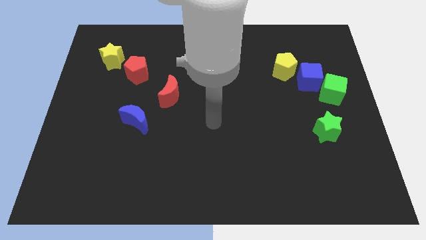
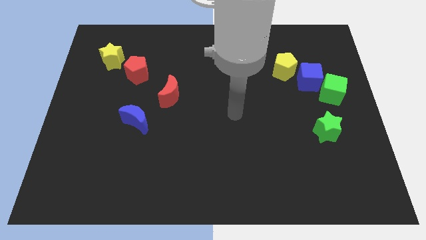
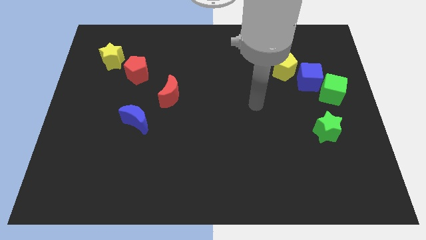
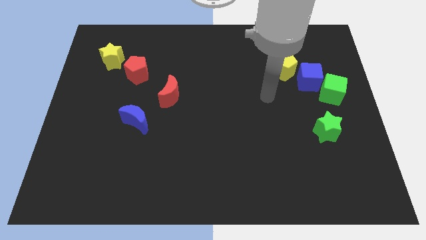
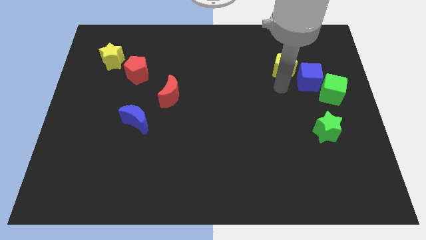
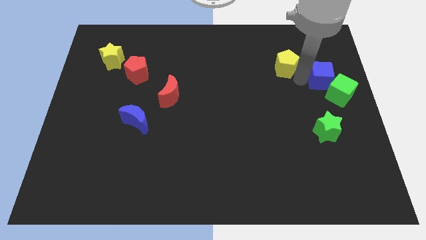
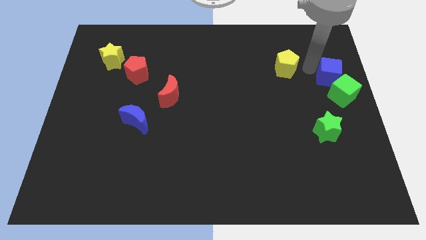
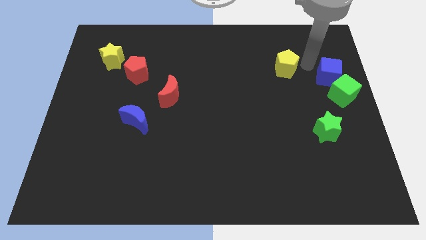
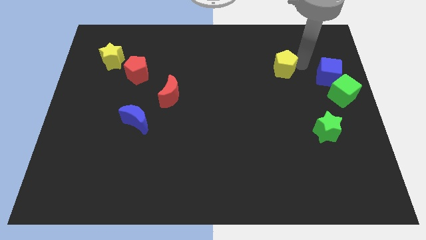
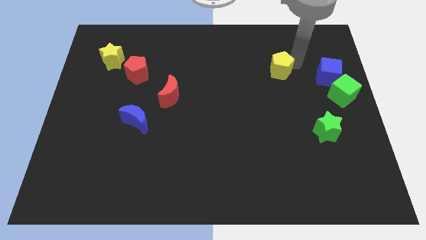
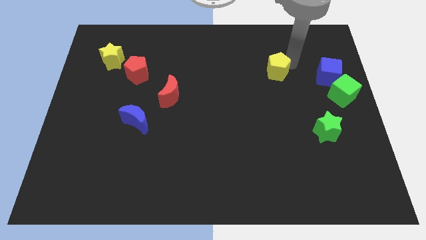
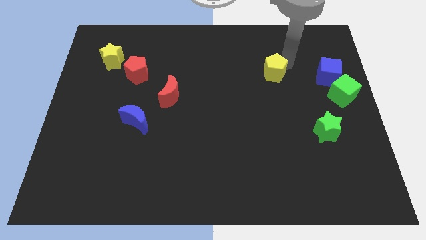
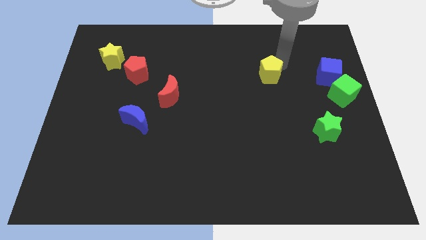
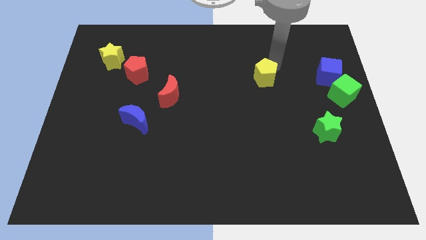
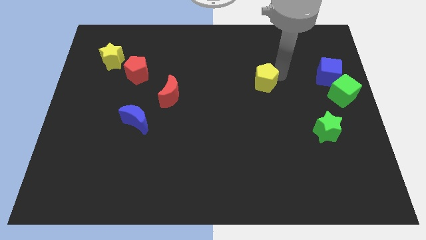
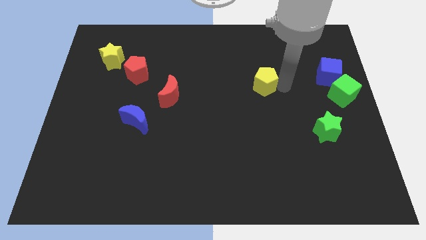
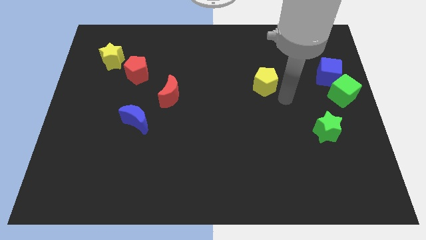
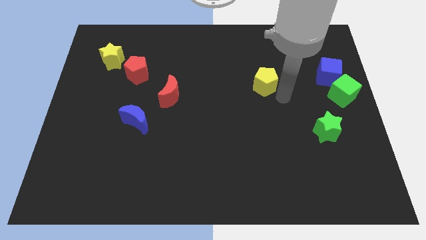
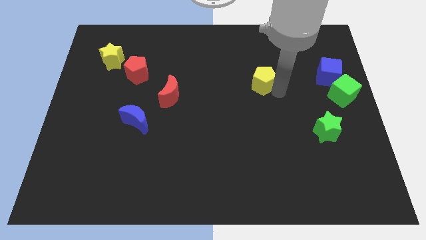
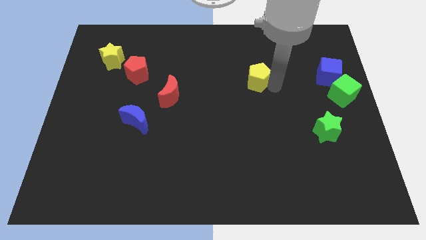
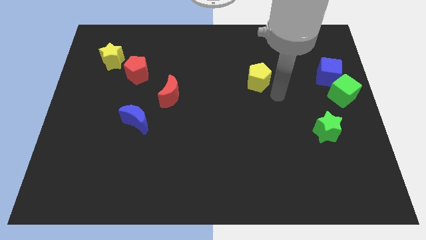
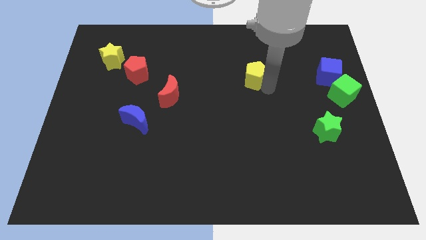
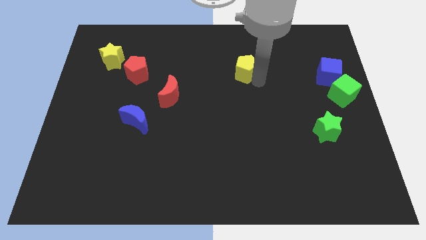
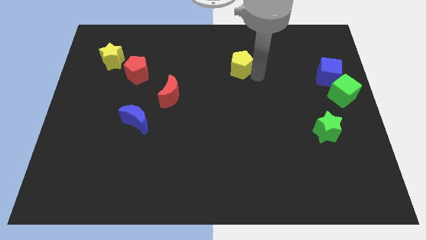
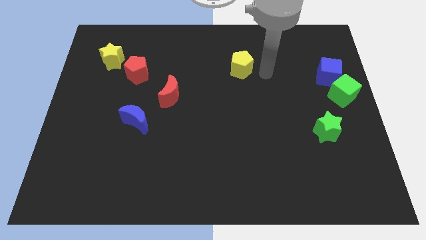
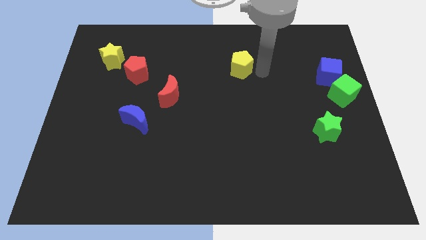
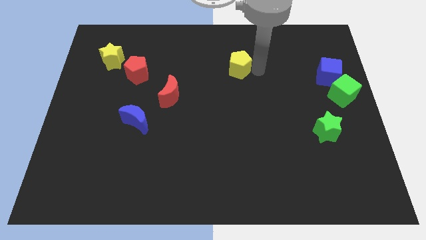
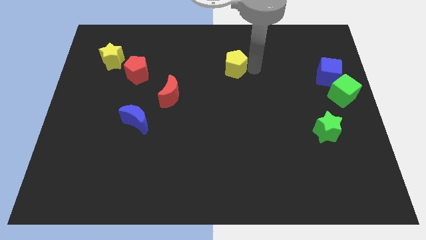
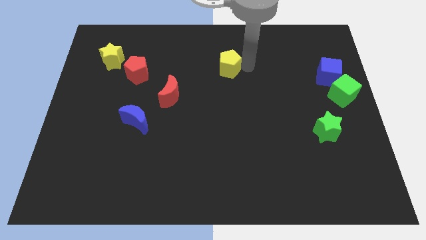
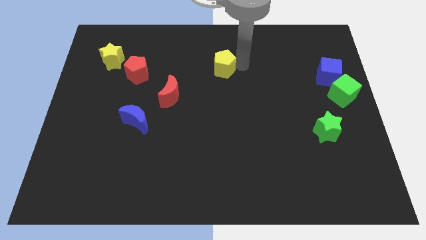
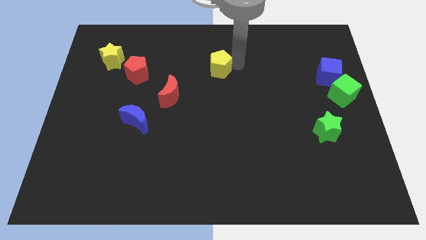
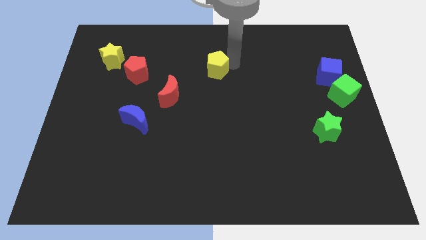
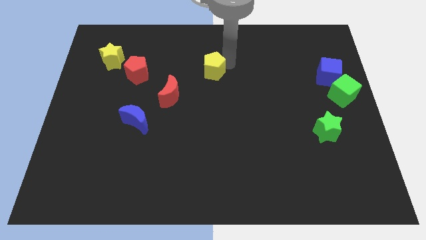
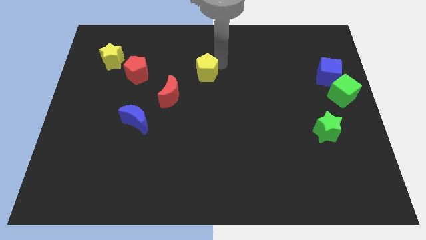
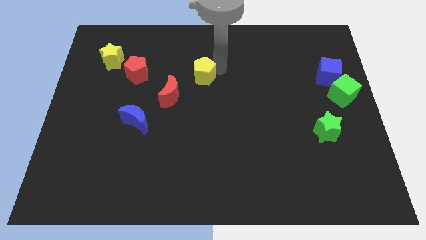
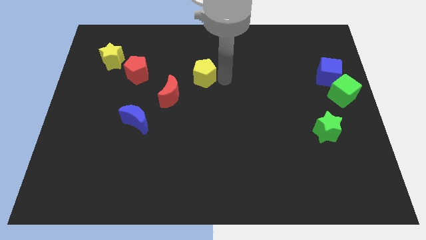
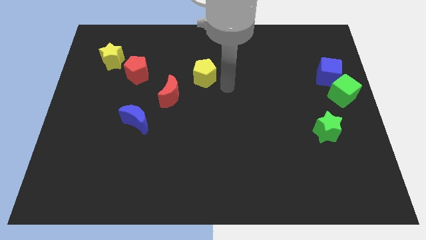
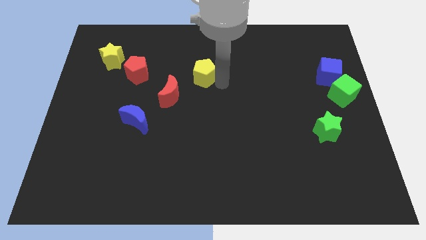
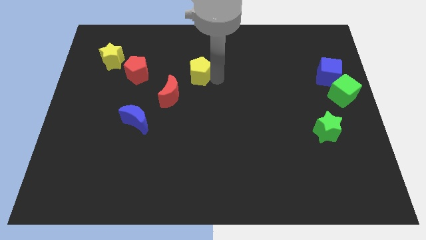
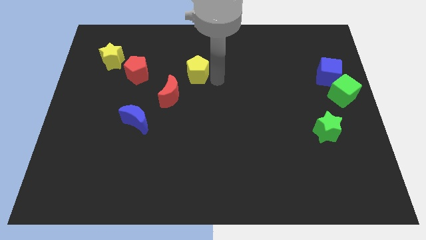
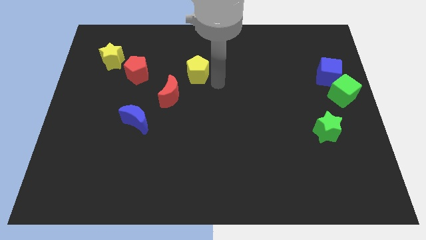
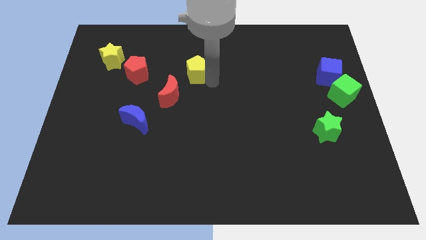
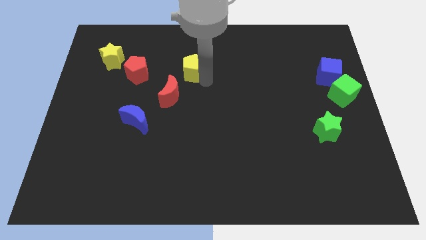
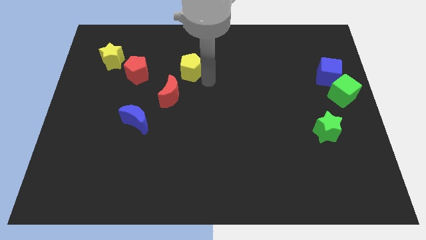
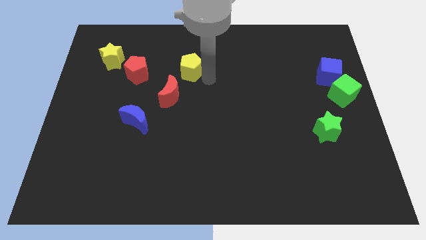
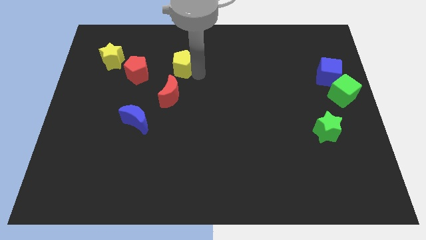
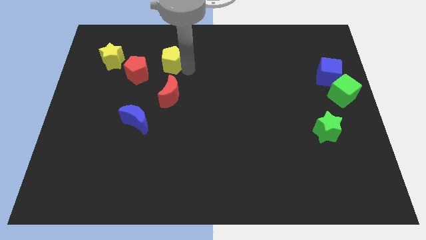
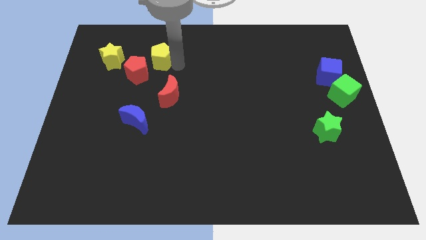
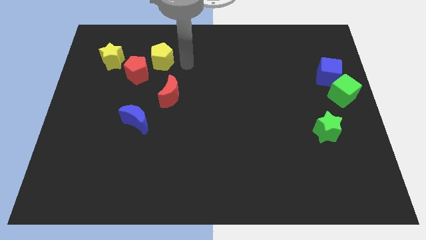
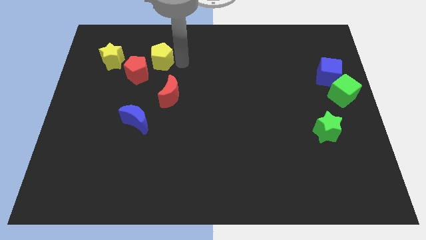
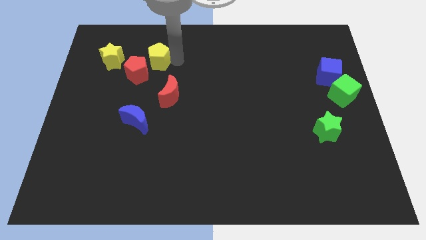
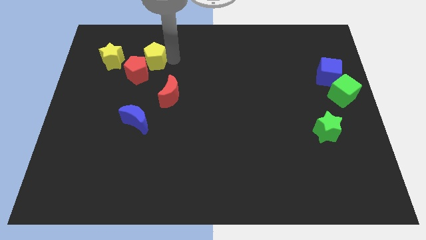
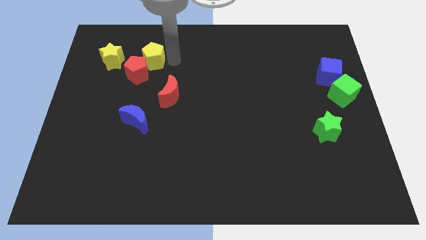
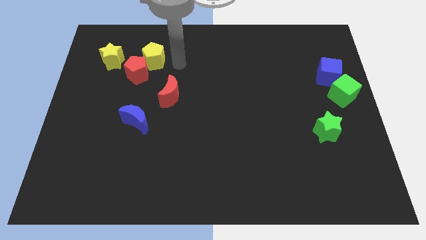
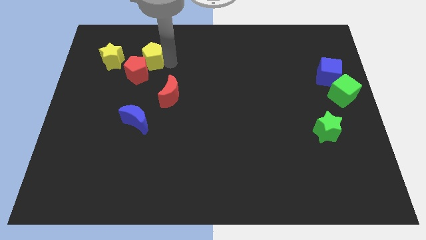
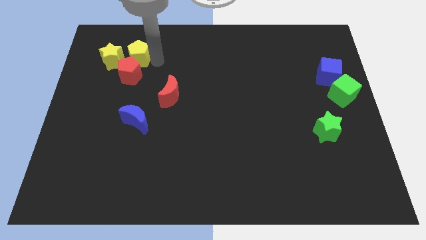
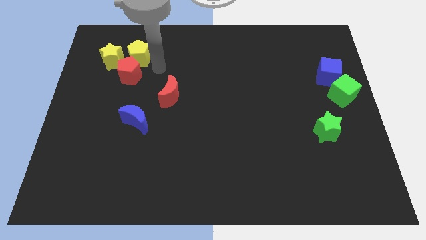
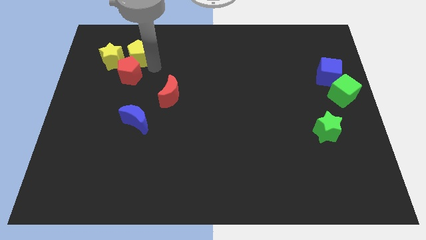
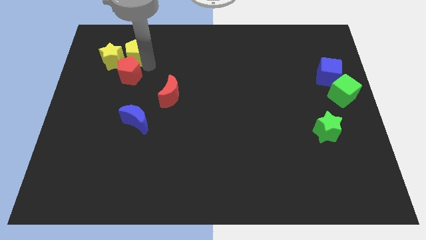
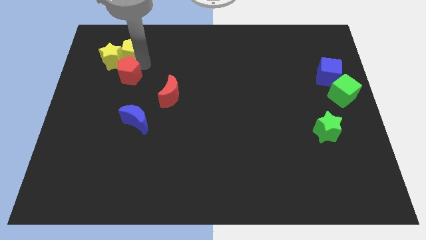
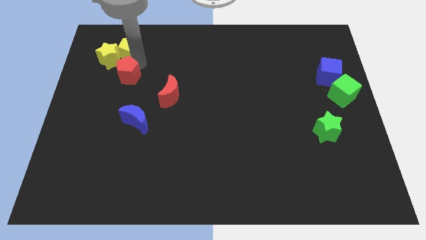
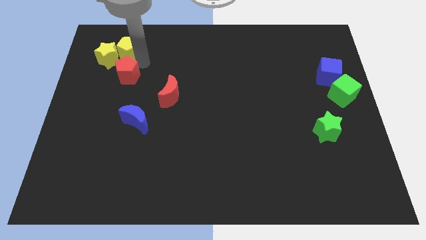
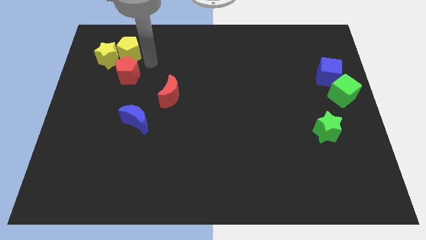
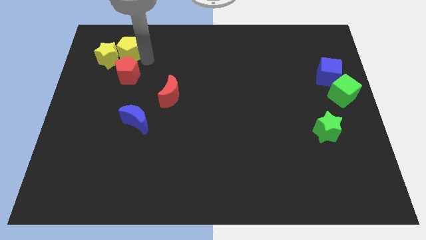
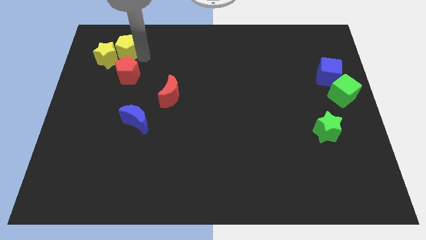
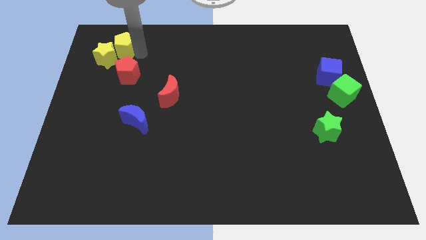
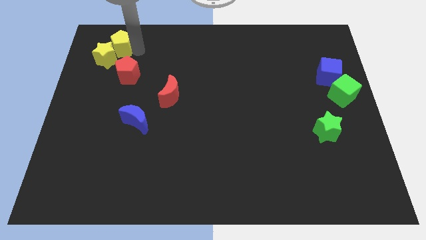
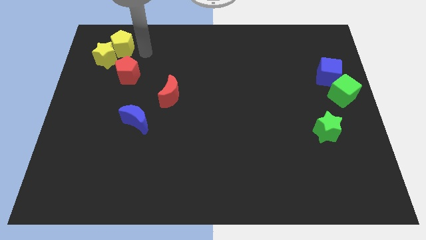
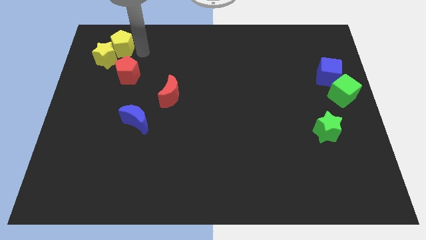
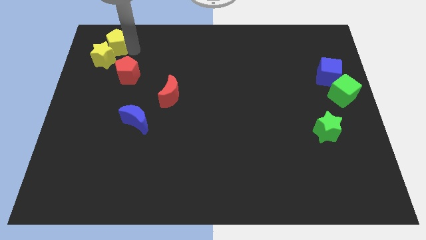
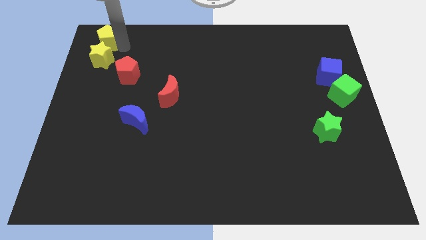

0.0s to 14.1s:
put the yellow pentagon to the top left of the board

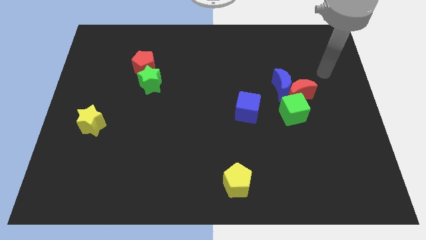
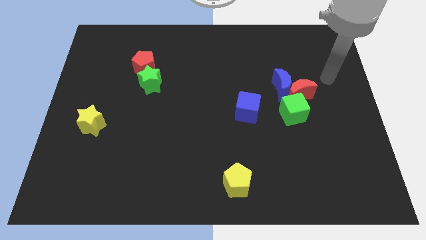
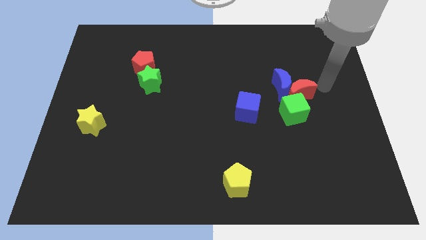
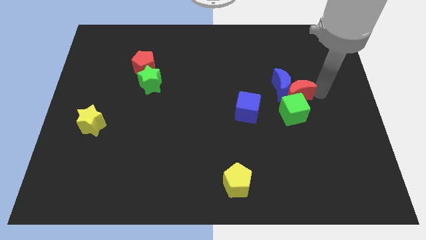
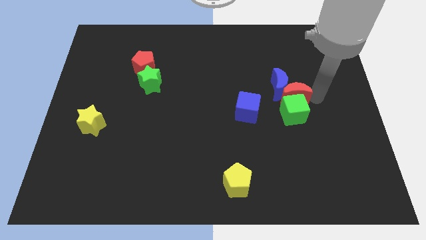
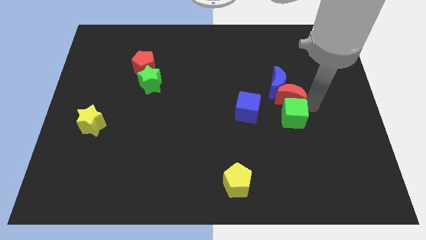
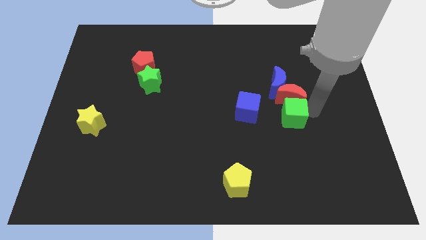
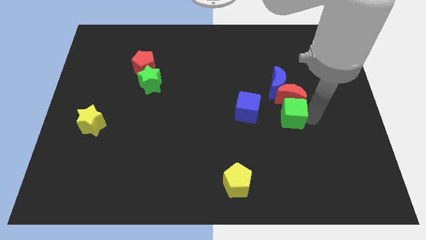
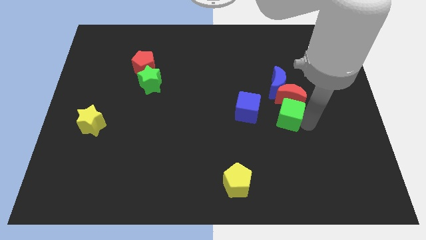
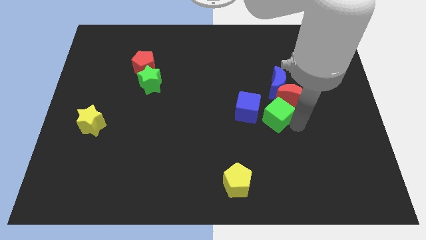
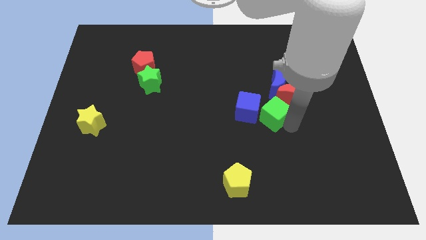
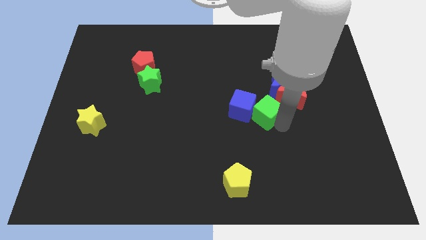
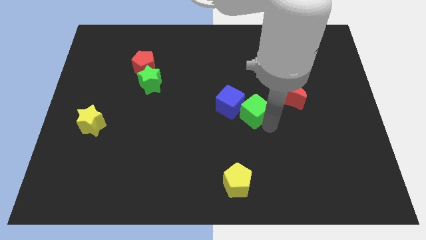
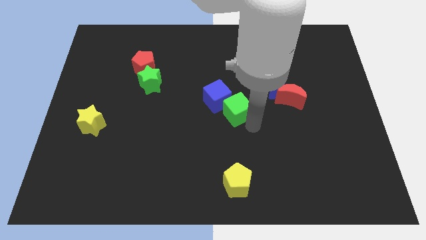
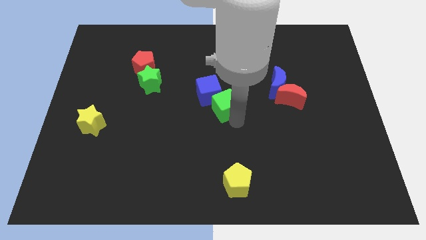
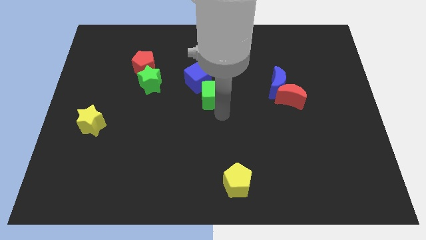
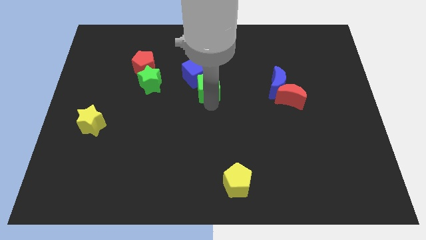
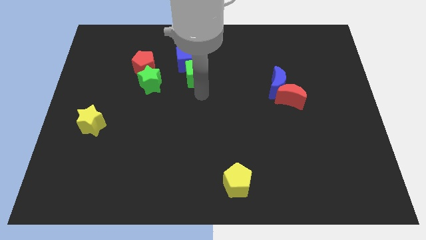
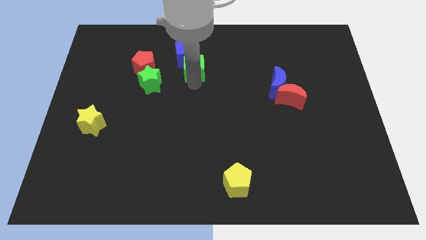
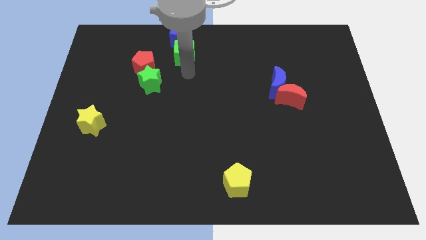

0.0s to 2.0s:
push the blue cube to the top
